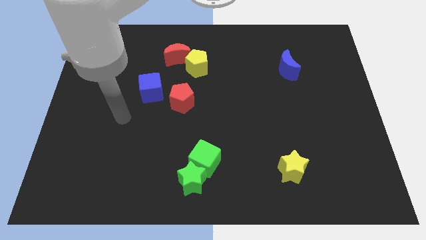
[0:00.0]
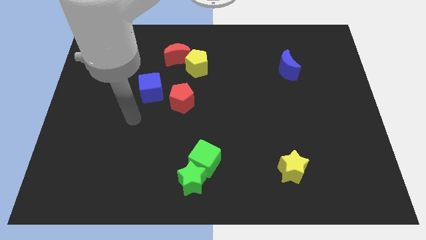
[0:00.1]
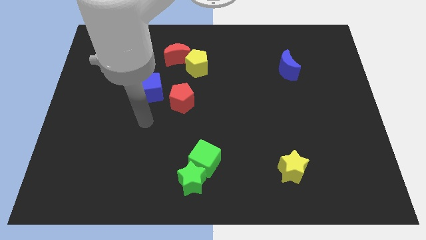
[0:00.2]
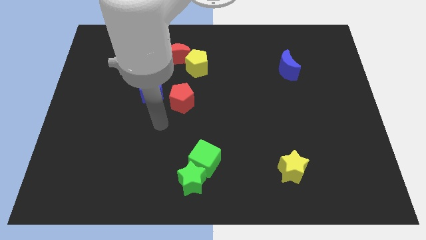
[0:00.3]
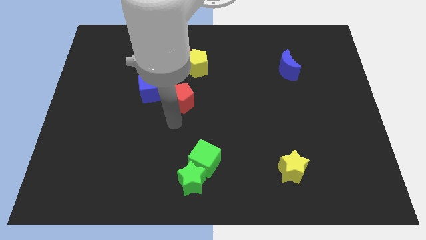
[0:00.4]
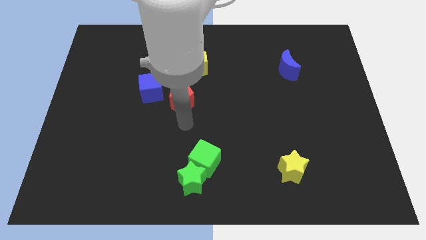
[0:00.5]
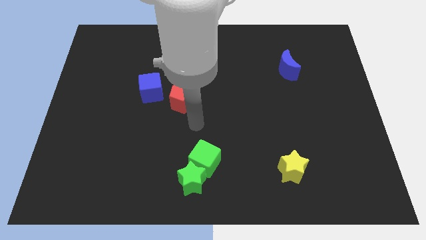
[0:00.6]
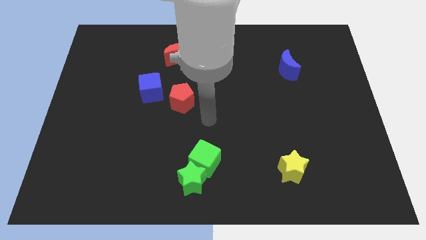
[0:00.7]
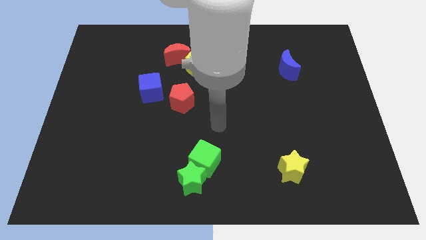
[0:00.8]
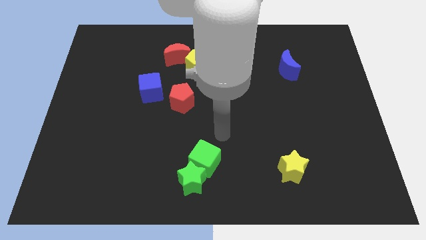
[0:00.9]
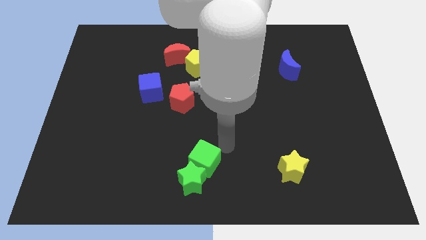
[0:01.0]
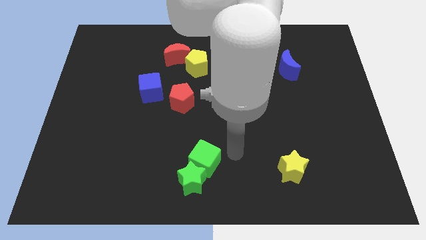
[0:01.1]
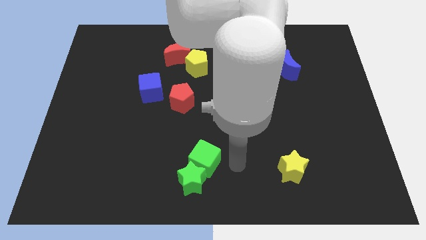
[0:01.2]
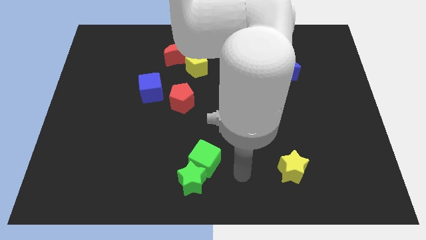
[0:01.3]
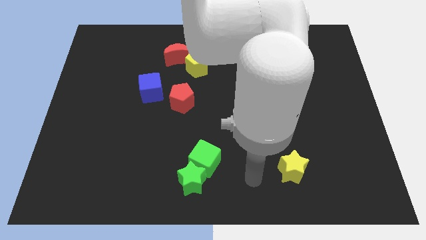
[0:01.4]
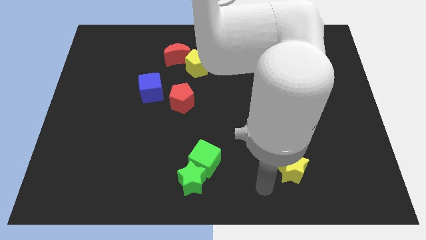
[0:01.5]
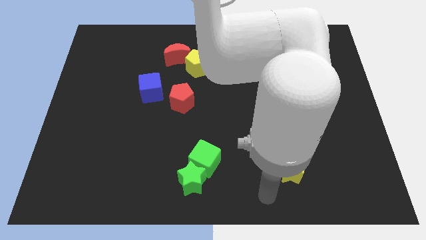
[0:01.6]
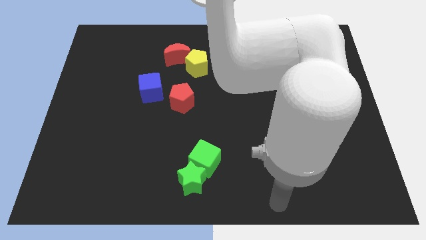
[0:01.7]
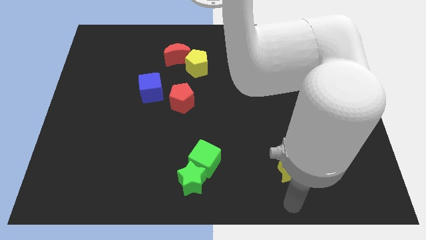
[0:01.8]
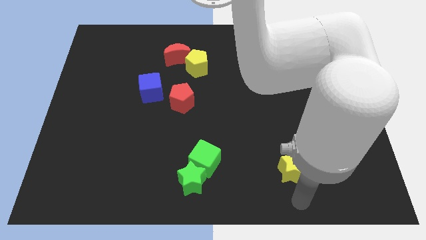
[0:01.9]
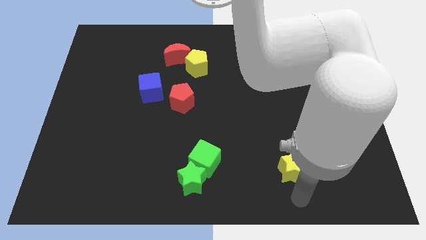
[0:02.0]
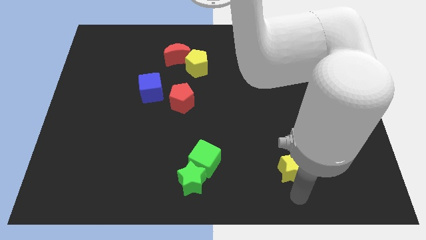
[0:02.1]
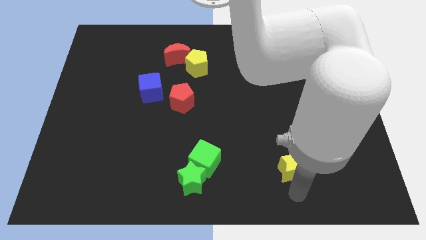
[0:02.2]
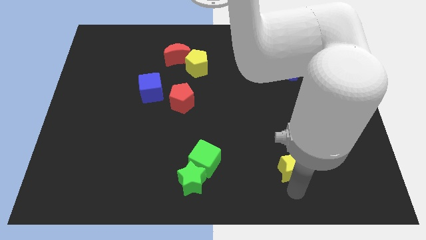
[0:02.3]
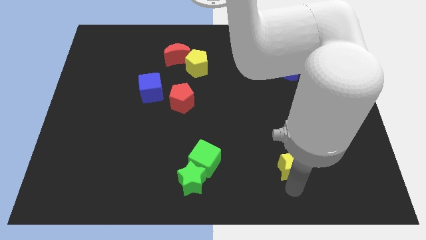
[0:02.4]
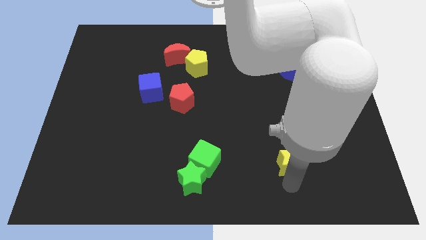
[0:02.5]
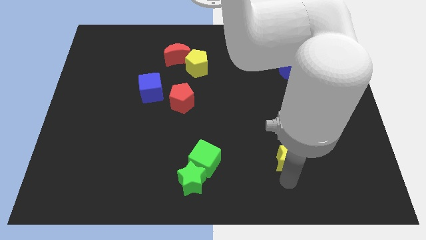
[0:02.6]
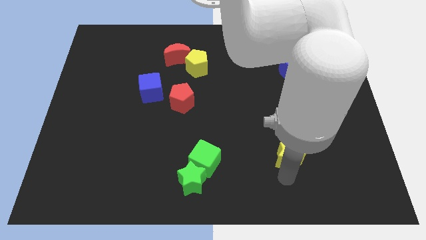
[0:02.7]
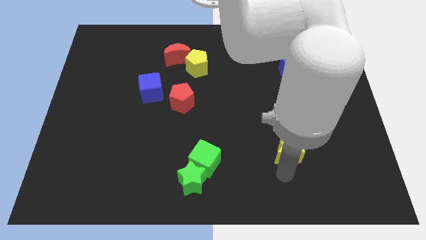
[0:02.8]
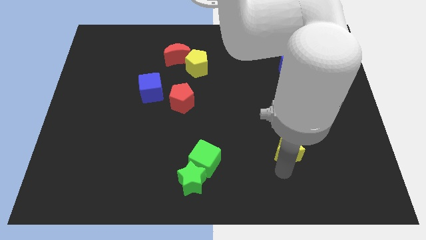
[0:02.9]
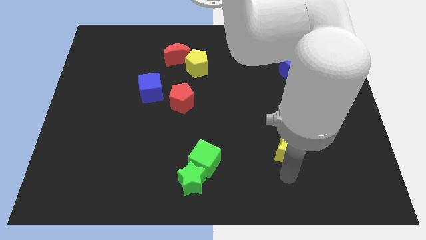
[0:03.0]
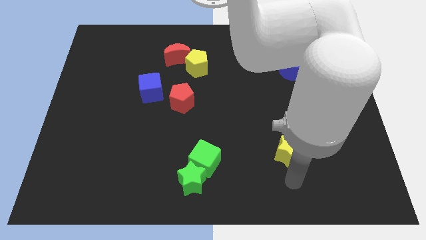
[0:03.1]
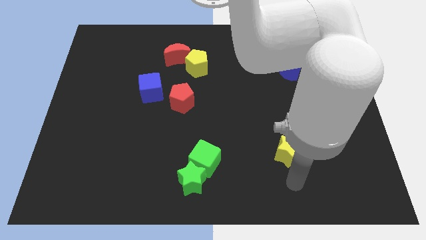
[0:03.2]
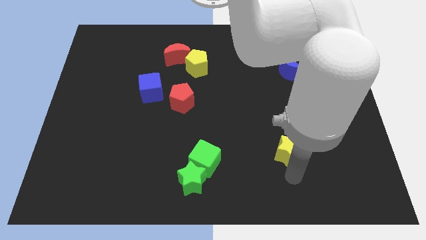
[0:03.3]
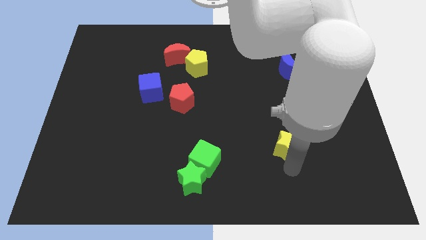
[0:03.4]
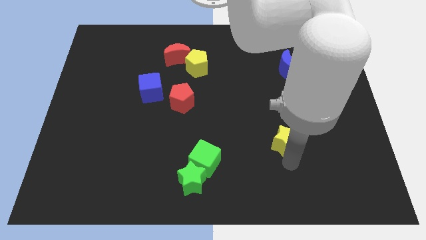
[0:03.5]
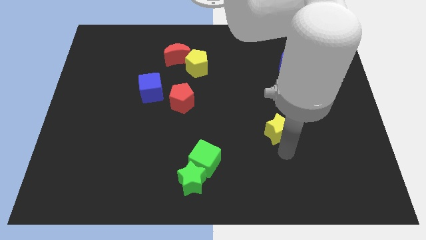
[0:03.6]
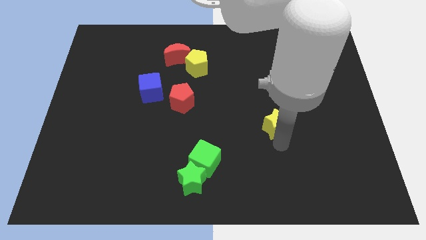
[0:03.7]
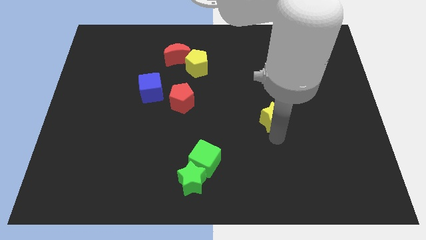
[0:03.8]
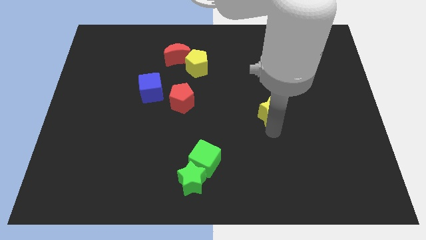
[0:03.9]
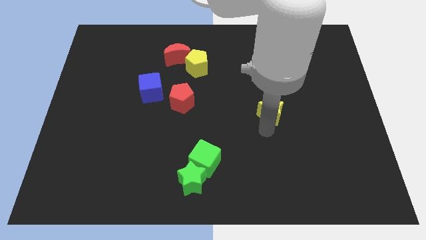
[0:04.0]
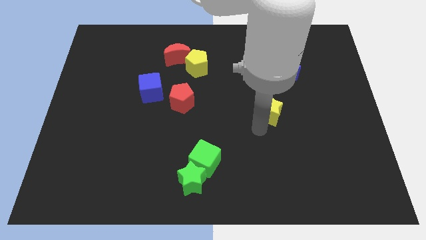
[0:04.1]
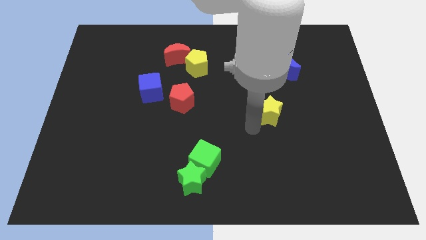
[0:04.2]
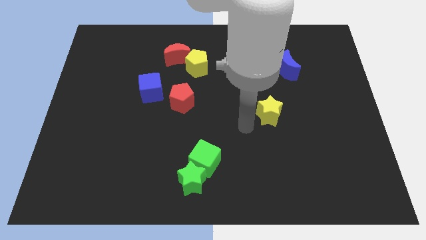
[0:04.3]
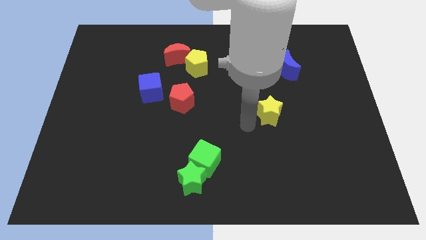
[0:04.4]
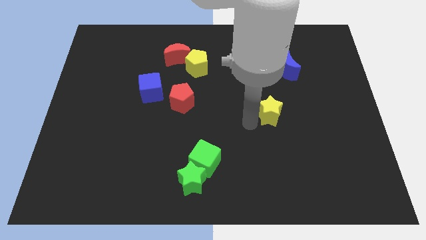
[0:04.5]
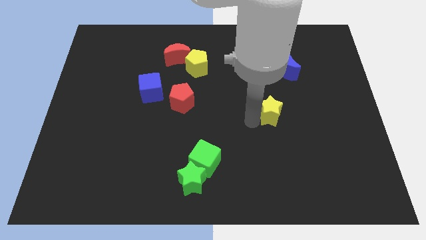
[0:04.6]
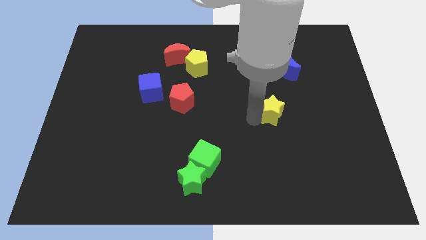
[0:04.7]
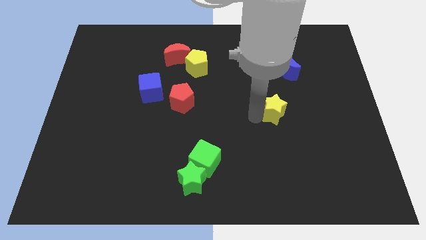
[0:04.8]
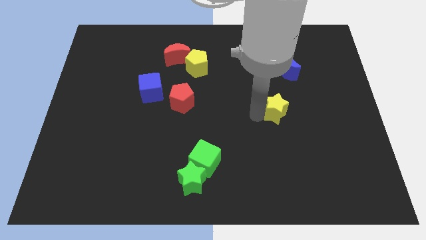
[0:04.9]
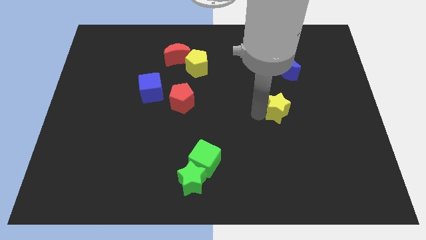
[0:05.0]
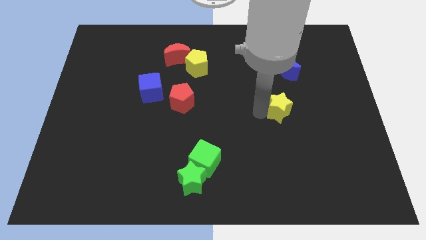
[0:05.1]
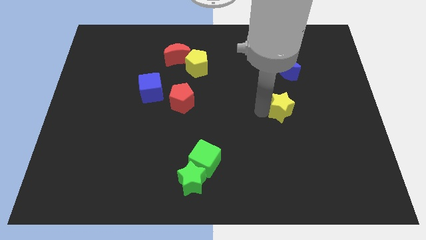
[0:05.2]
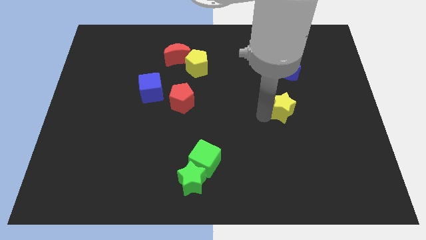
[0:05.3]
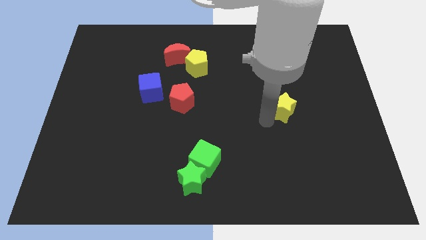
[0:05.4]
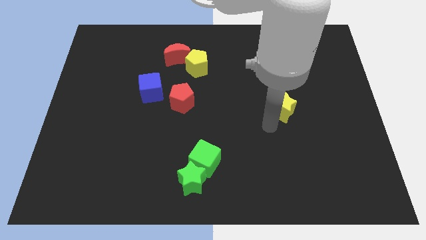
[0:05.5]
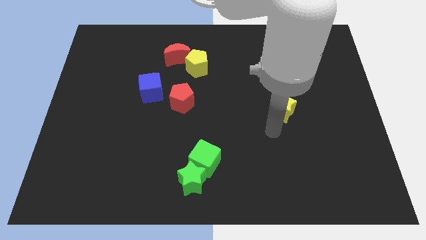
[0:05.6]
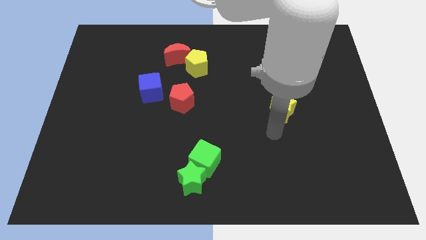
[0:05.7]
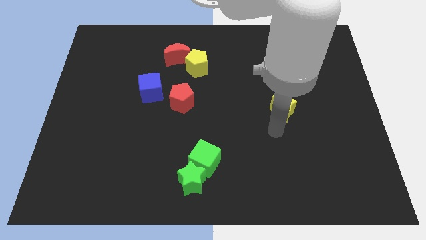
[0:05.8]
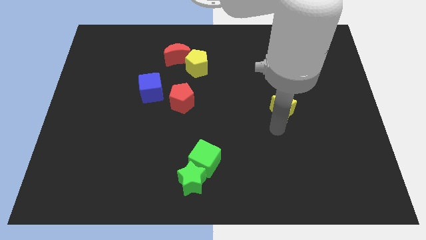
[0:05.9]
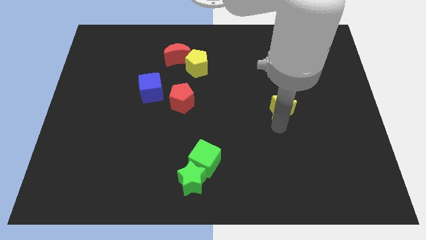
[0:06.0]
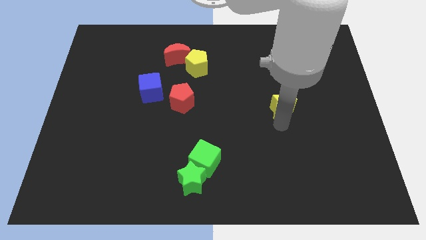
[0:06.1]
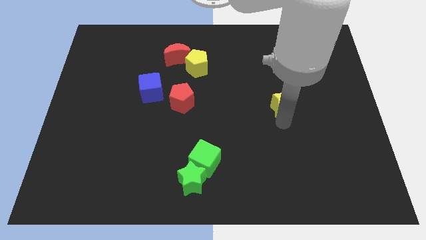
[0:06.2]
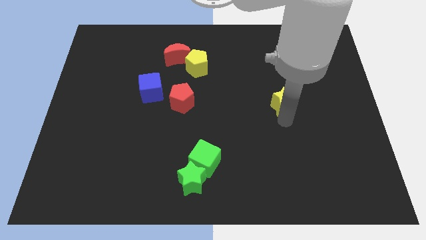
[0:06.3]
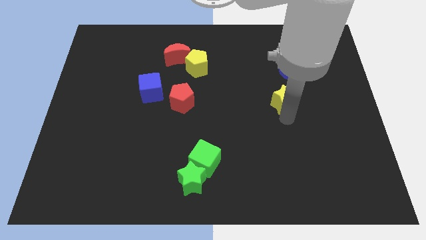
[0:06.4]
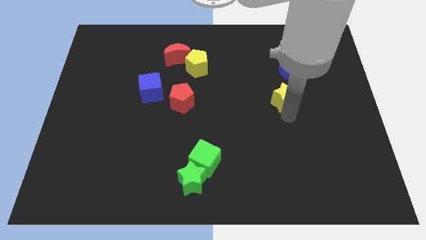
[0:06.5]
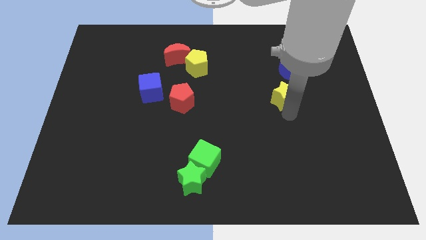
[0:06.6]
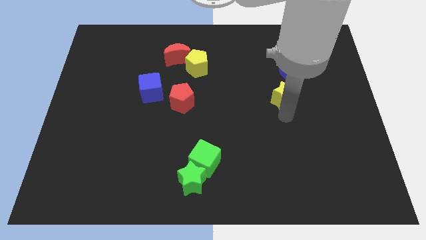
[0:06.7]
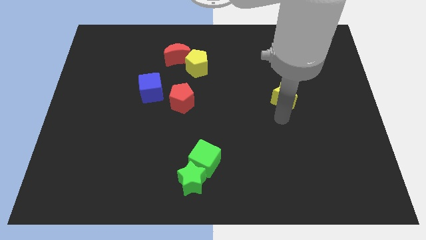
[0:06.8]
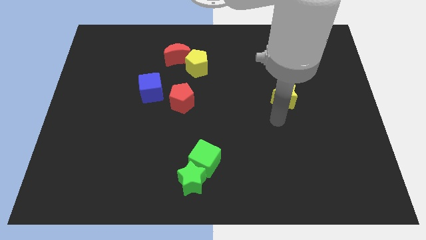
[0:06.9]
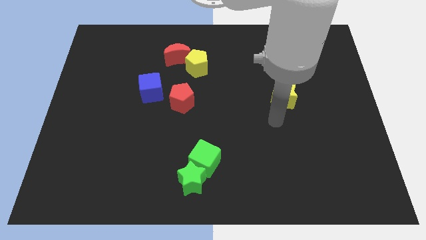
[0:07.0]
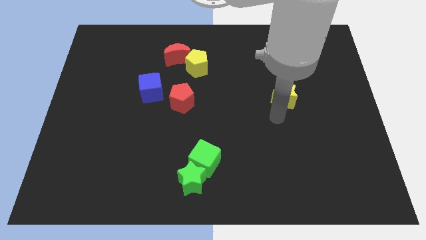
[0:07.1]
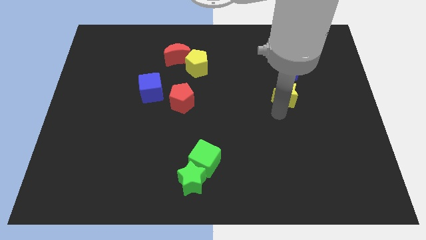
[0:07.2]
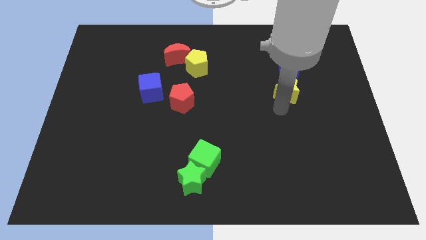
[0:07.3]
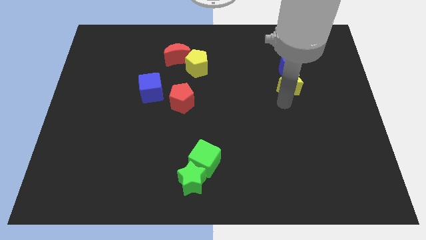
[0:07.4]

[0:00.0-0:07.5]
put the yellow star next to the blue moon
